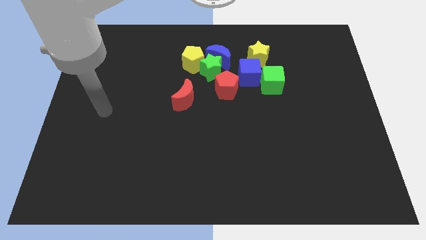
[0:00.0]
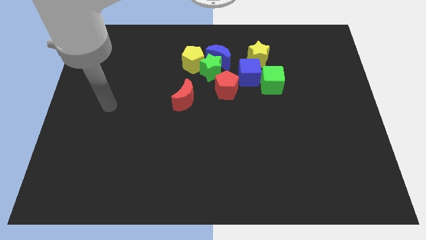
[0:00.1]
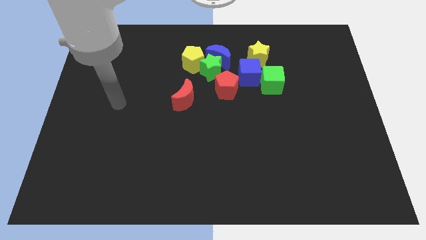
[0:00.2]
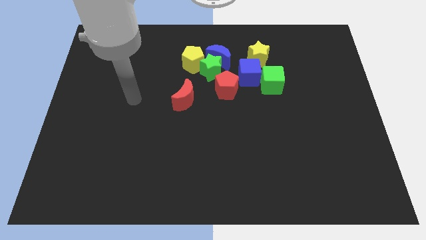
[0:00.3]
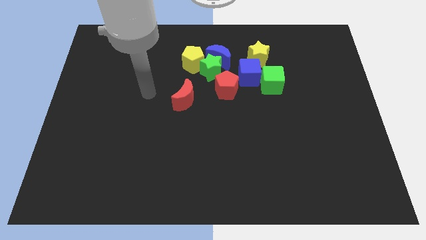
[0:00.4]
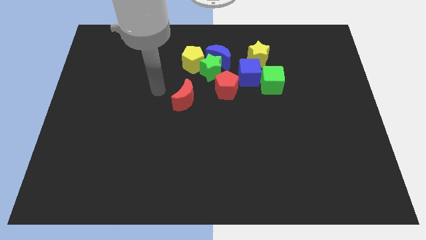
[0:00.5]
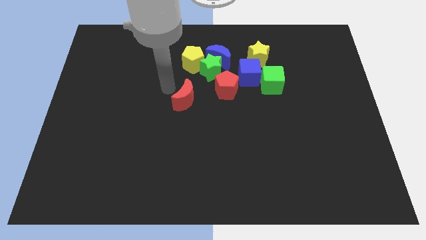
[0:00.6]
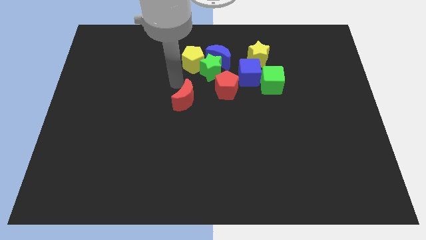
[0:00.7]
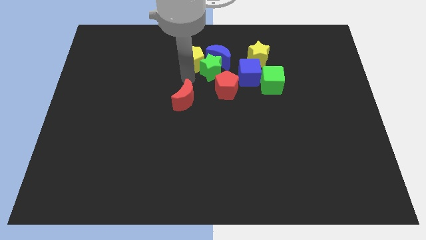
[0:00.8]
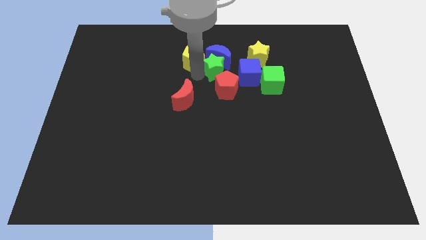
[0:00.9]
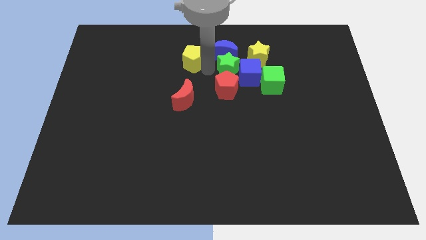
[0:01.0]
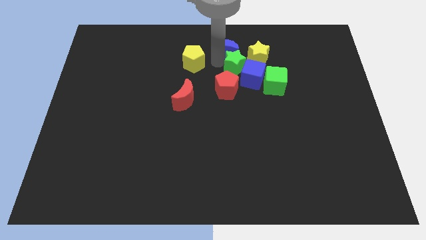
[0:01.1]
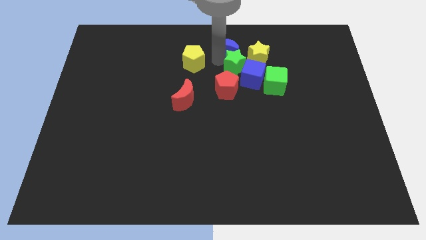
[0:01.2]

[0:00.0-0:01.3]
move the yellow pentagon away from the green star and blue moon

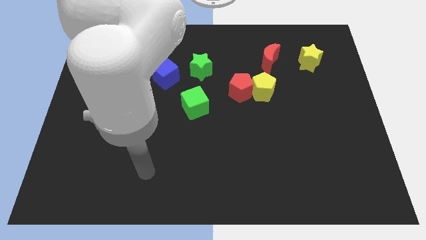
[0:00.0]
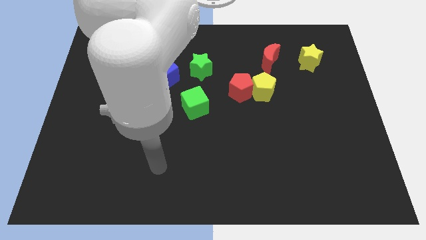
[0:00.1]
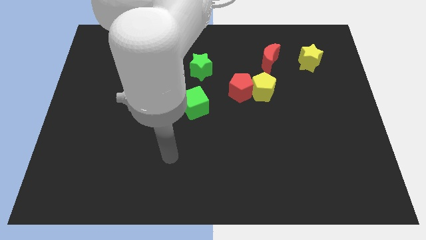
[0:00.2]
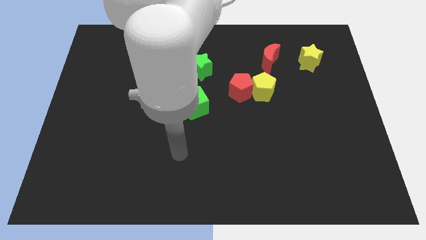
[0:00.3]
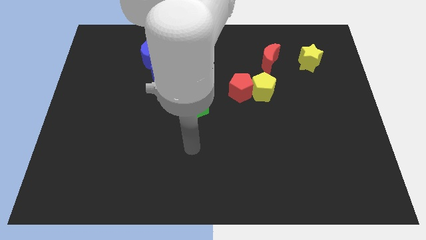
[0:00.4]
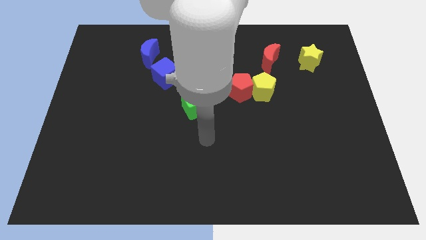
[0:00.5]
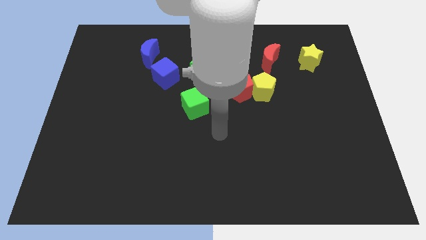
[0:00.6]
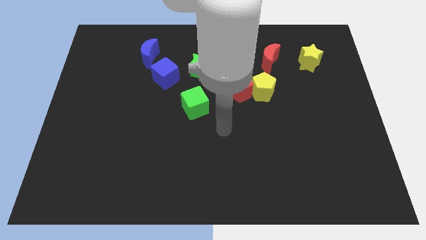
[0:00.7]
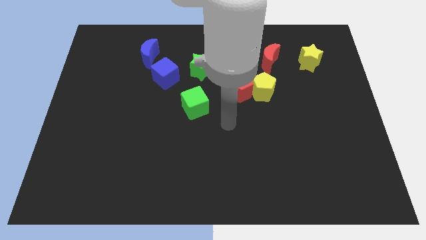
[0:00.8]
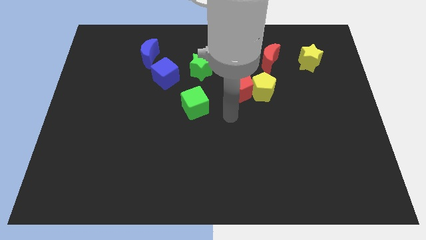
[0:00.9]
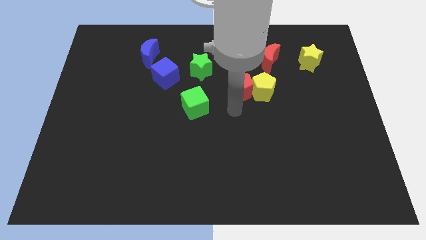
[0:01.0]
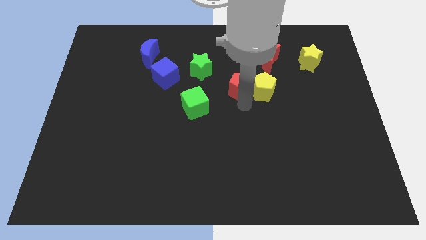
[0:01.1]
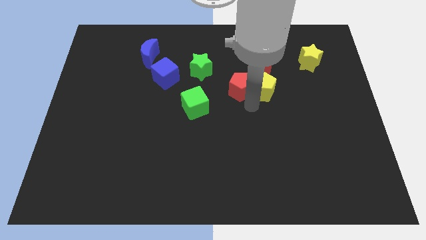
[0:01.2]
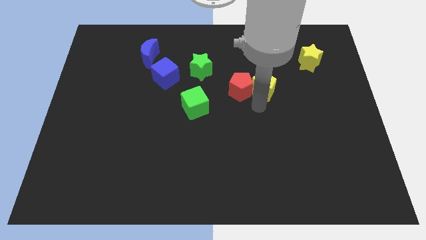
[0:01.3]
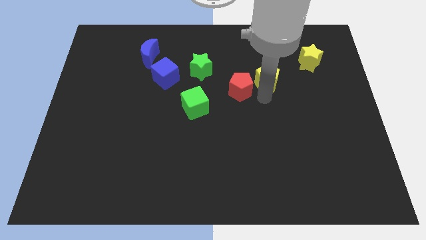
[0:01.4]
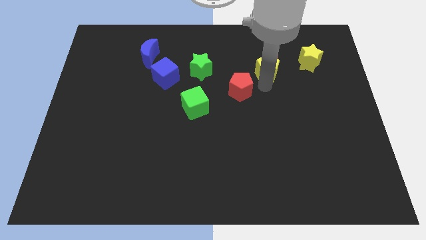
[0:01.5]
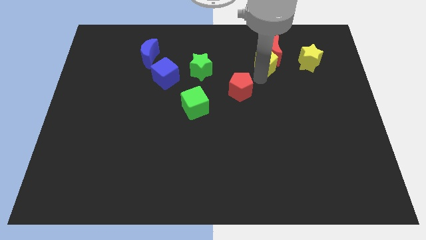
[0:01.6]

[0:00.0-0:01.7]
pull the red pentagon apart from the yellow pentagon

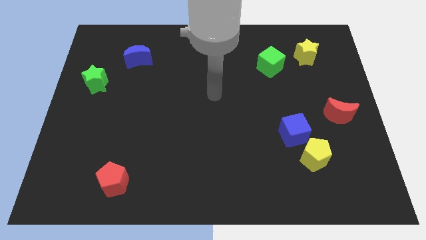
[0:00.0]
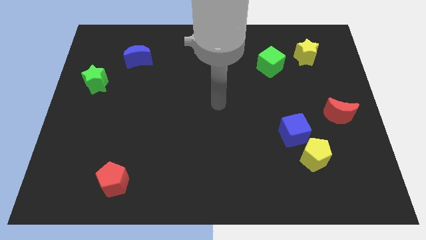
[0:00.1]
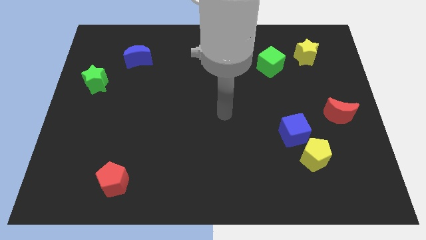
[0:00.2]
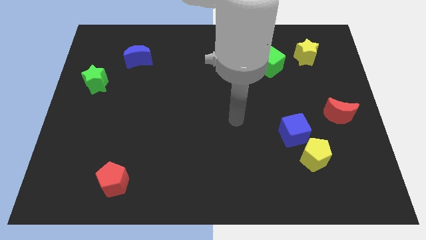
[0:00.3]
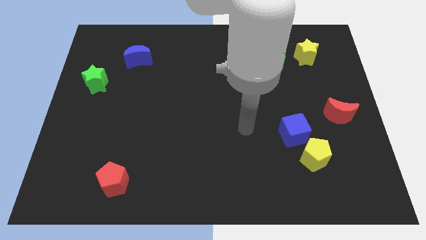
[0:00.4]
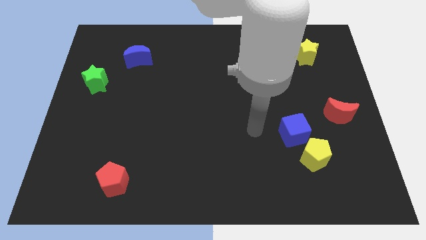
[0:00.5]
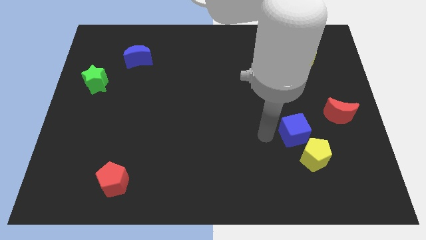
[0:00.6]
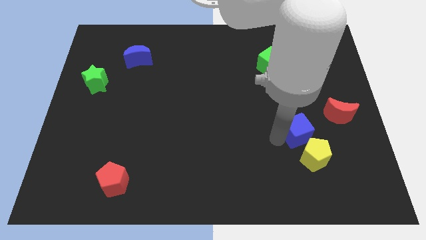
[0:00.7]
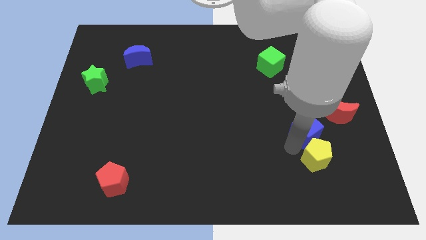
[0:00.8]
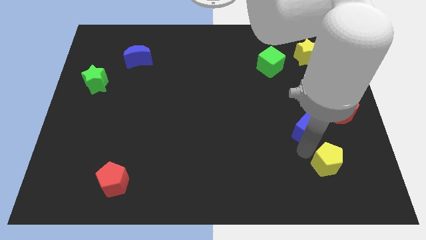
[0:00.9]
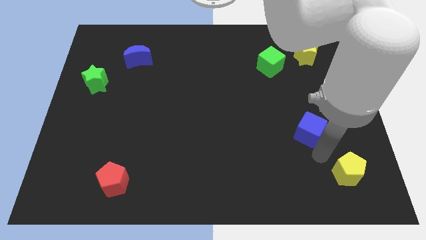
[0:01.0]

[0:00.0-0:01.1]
pull the blue cube apart from the yellow pentagon

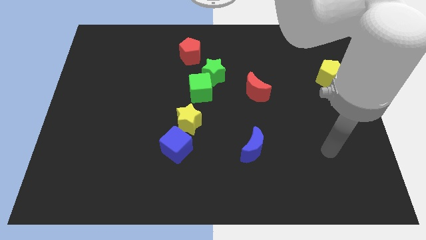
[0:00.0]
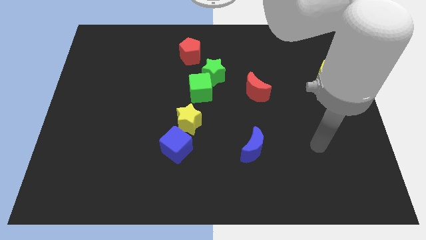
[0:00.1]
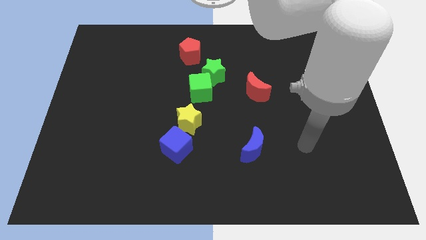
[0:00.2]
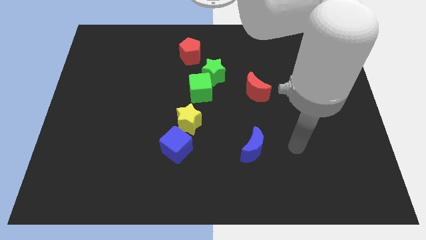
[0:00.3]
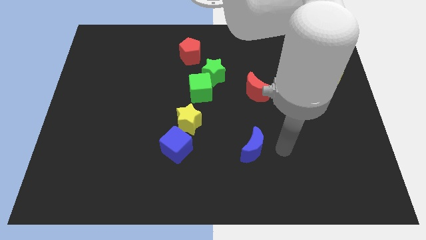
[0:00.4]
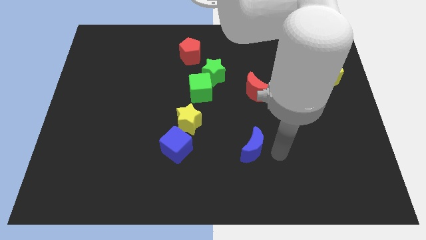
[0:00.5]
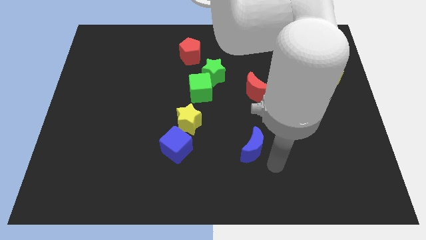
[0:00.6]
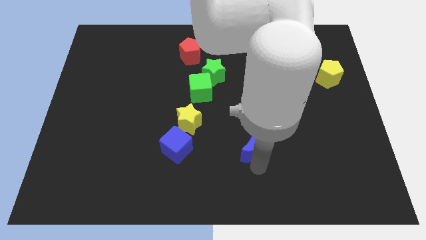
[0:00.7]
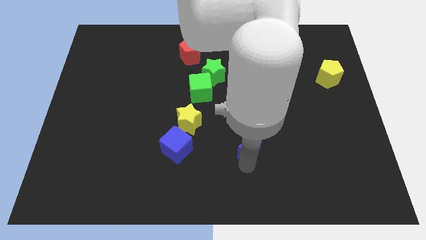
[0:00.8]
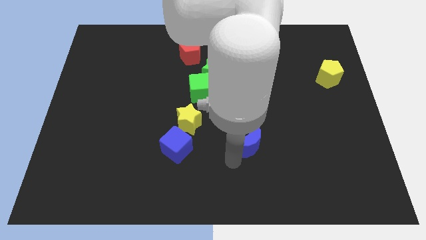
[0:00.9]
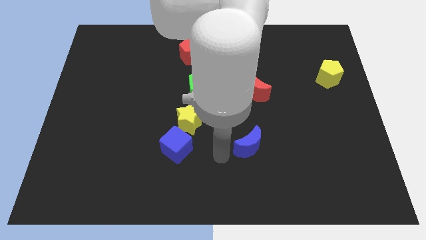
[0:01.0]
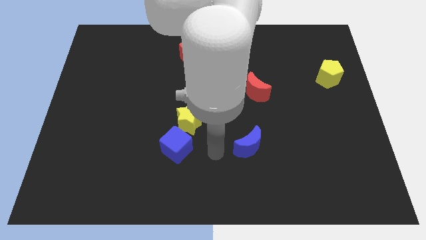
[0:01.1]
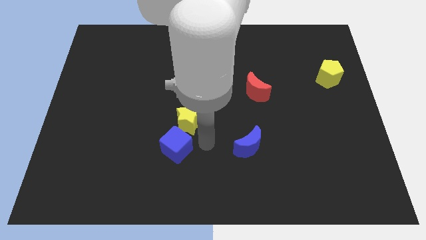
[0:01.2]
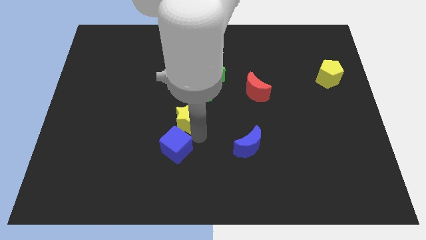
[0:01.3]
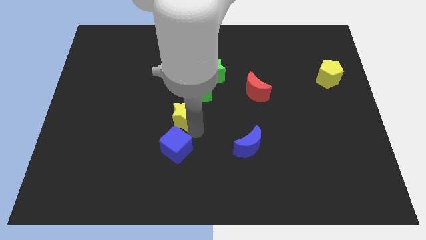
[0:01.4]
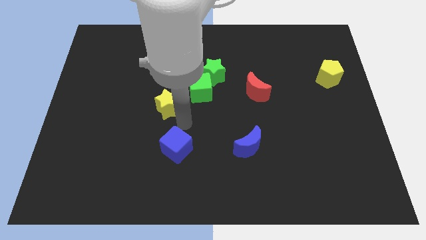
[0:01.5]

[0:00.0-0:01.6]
move the blue cube away from the yellow star

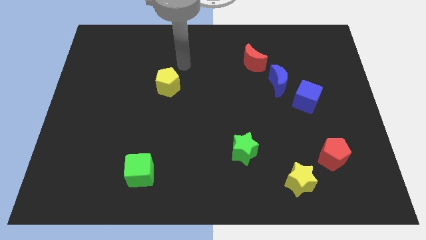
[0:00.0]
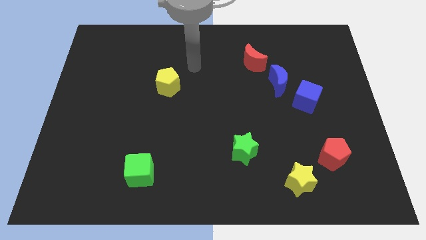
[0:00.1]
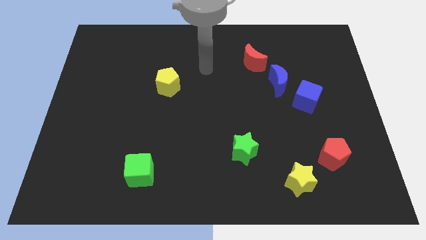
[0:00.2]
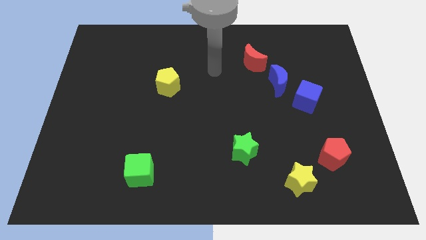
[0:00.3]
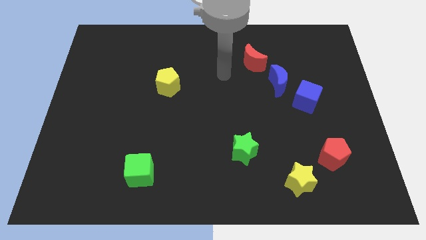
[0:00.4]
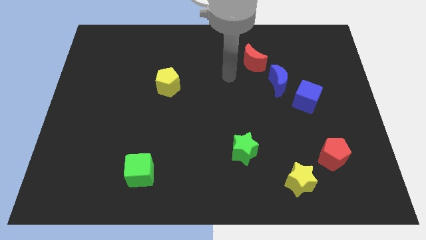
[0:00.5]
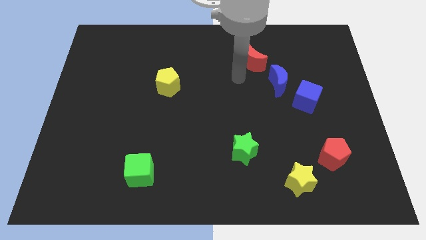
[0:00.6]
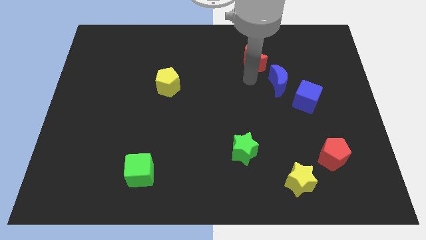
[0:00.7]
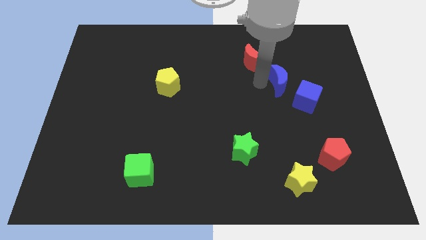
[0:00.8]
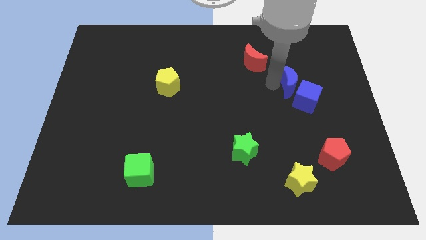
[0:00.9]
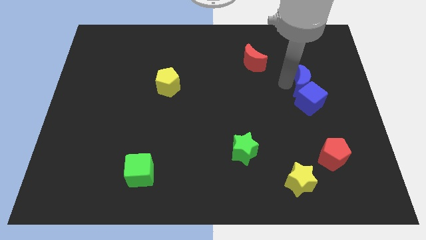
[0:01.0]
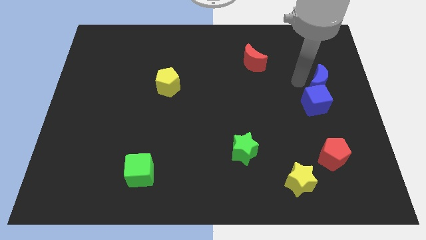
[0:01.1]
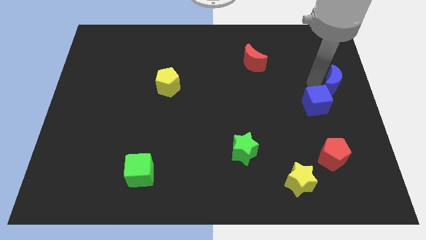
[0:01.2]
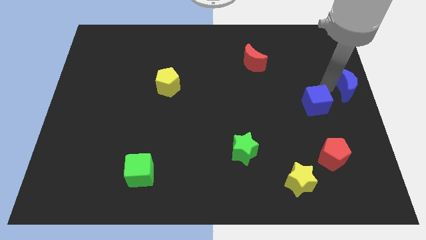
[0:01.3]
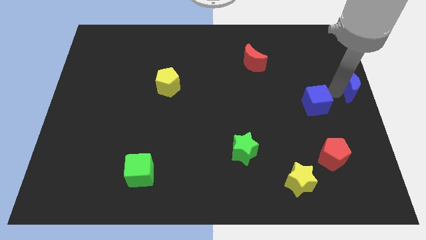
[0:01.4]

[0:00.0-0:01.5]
separate the blue cube from the blue moon

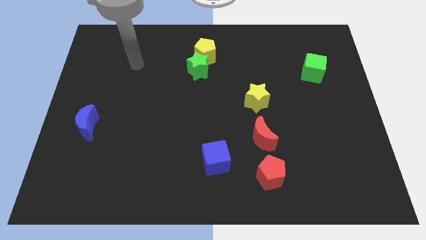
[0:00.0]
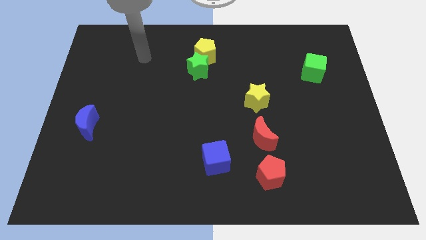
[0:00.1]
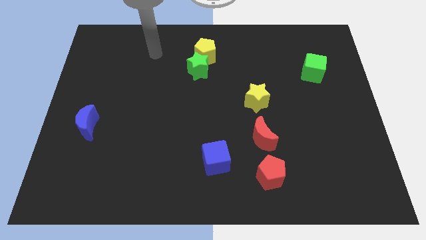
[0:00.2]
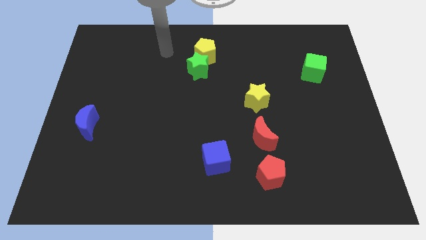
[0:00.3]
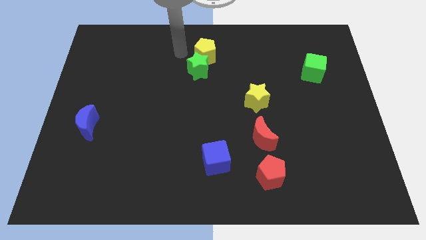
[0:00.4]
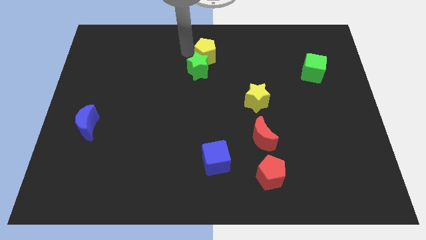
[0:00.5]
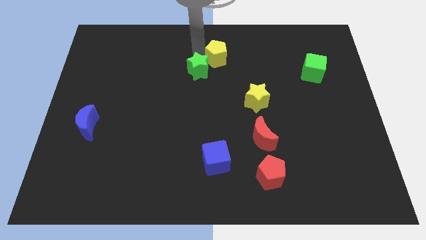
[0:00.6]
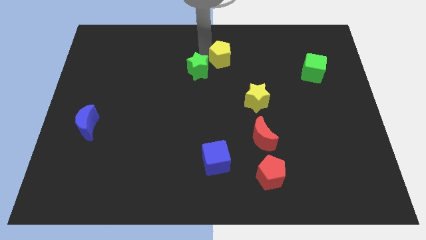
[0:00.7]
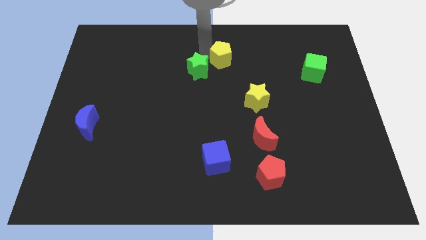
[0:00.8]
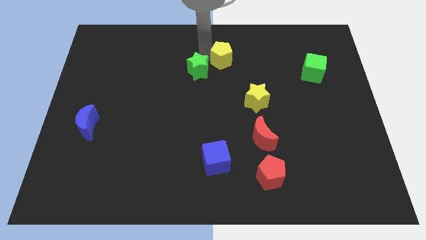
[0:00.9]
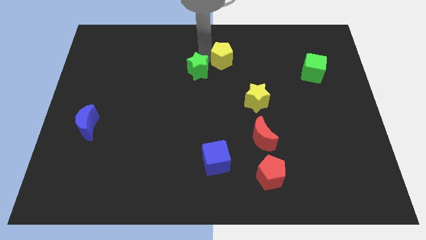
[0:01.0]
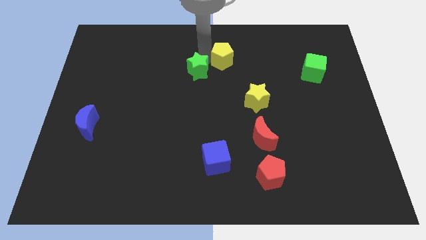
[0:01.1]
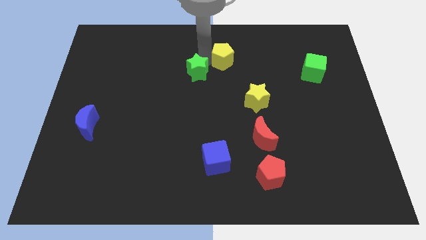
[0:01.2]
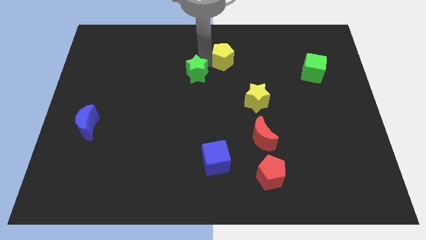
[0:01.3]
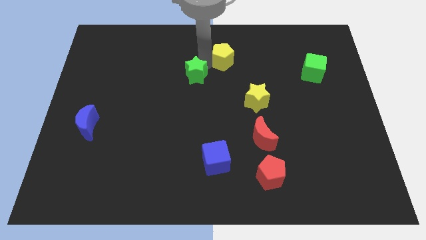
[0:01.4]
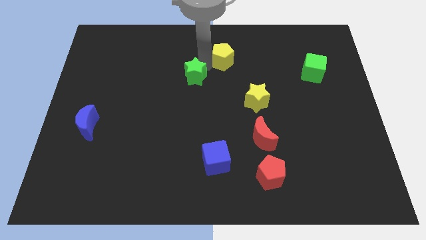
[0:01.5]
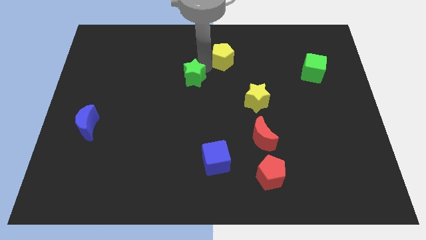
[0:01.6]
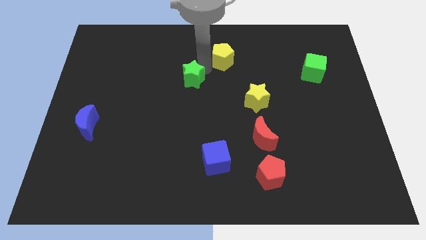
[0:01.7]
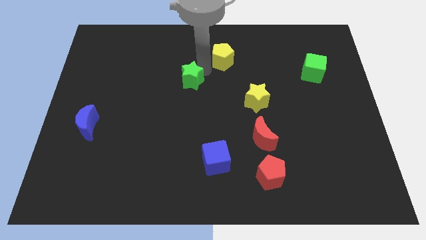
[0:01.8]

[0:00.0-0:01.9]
separate the green star from the yellow pentagon

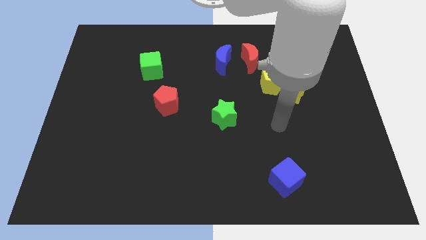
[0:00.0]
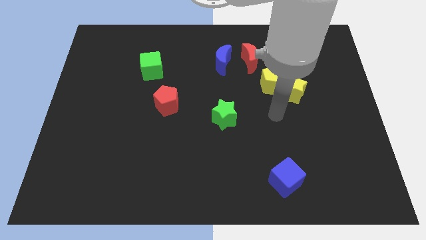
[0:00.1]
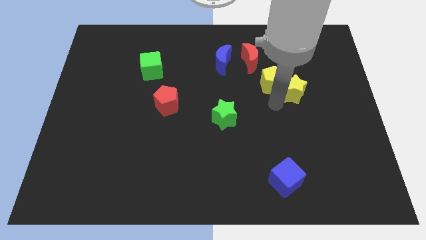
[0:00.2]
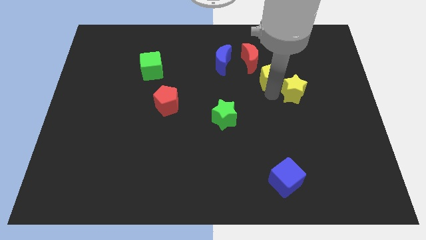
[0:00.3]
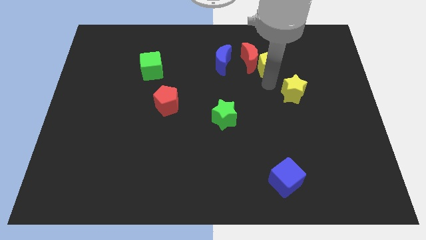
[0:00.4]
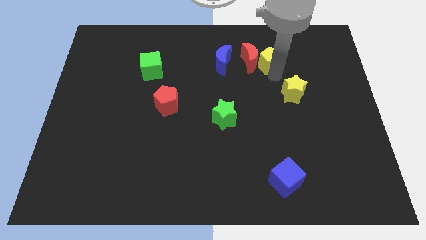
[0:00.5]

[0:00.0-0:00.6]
pull the yellow star apart from the yellow pentagon
